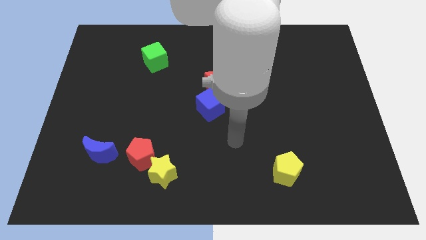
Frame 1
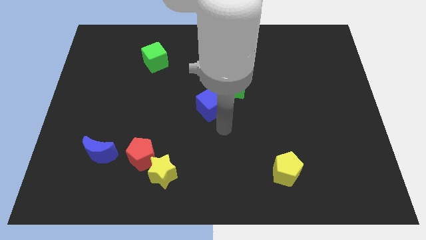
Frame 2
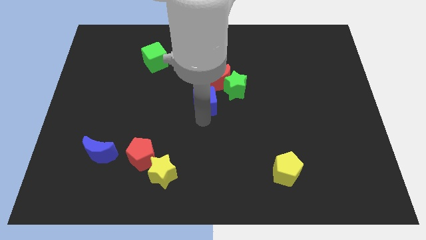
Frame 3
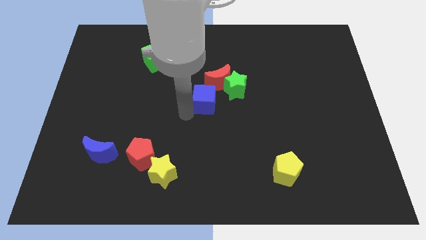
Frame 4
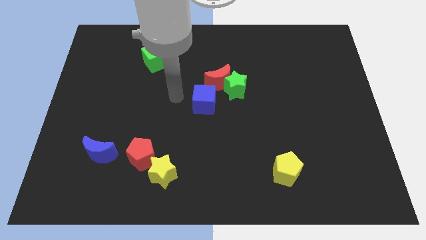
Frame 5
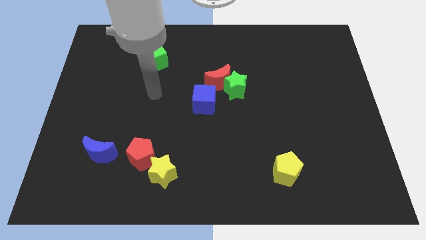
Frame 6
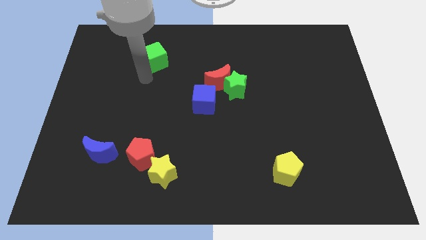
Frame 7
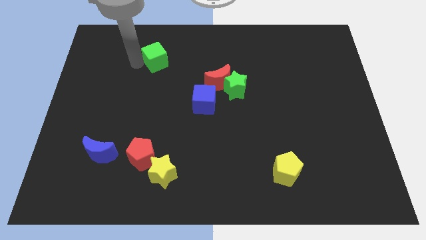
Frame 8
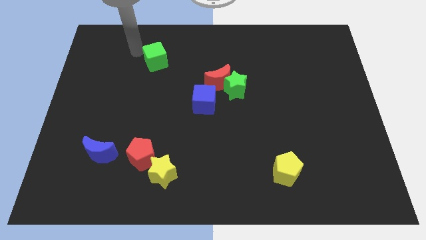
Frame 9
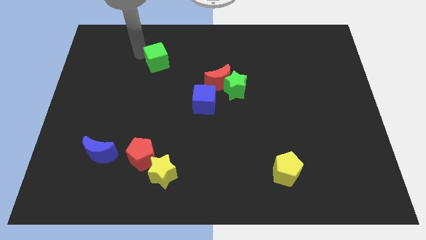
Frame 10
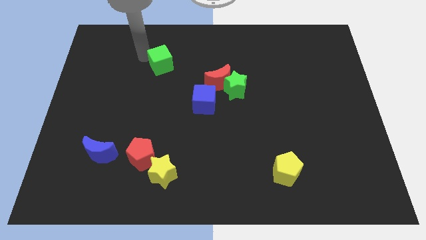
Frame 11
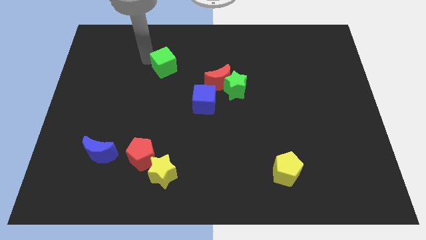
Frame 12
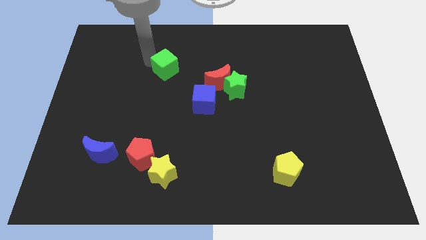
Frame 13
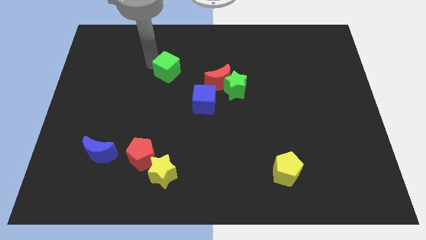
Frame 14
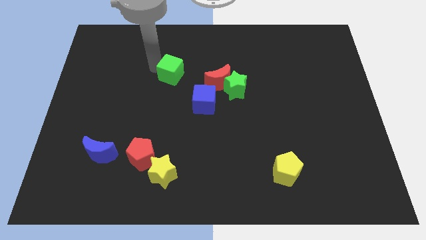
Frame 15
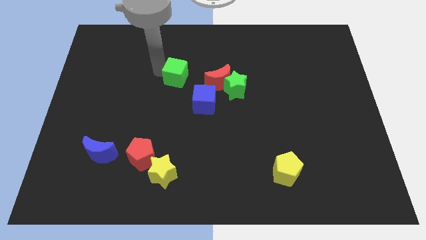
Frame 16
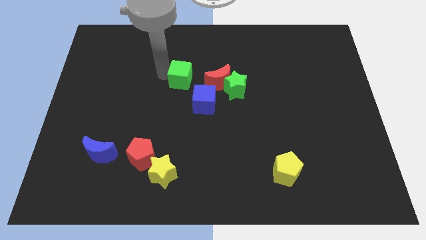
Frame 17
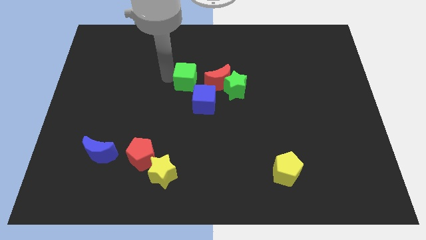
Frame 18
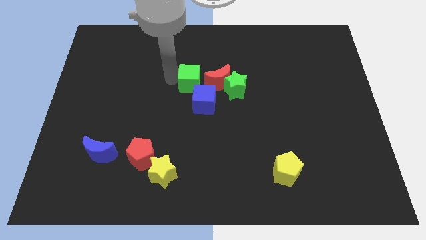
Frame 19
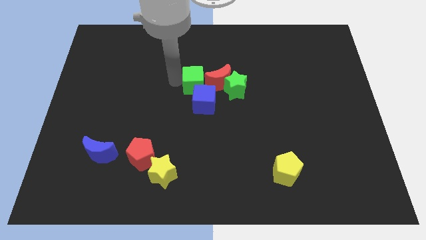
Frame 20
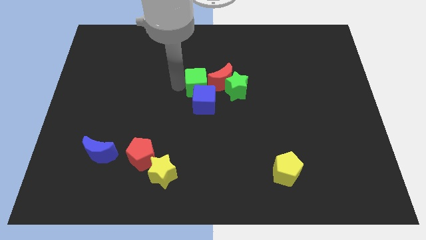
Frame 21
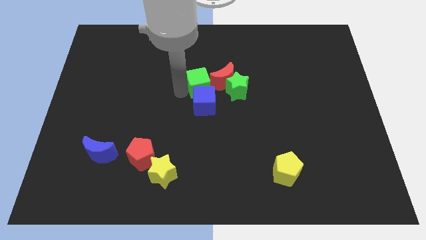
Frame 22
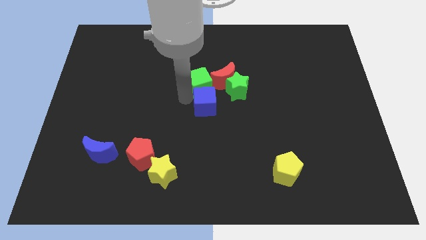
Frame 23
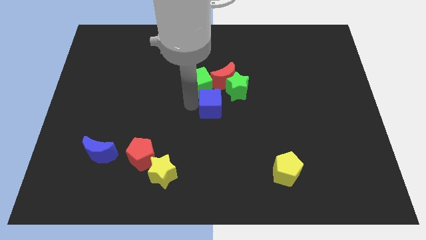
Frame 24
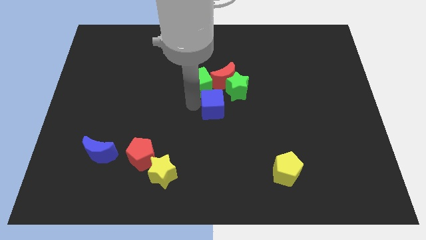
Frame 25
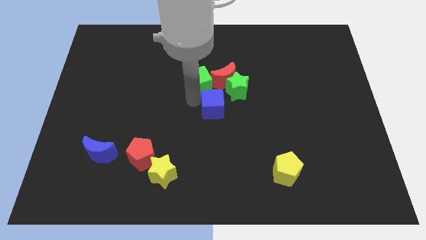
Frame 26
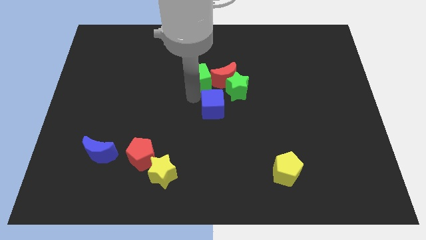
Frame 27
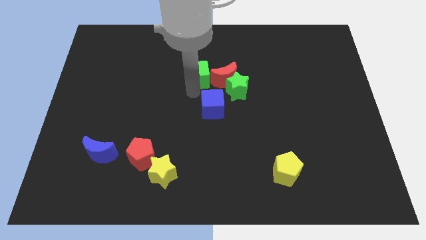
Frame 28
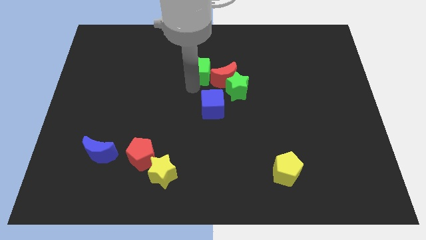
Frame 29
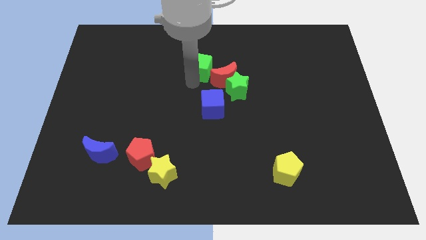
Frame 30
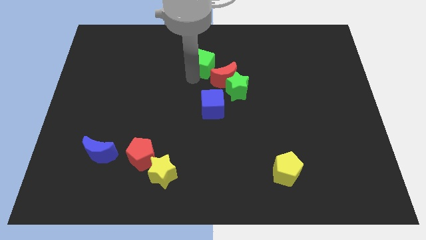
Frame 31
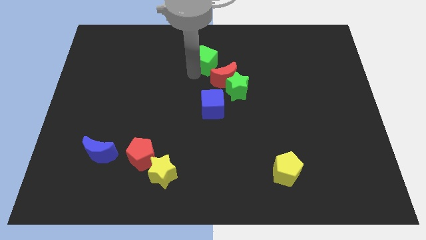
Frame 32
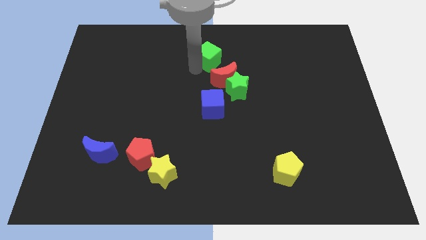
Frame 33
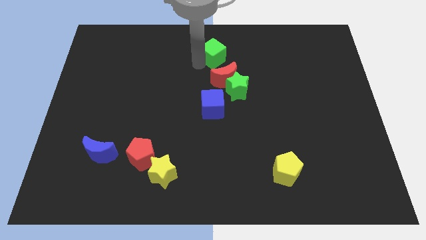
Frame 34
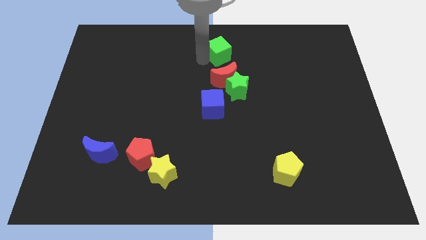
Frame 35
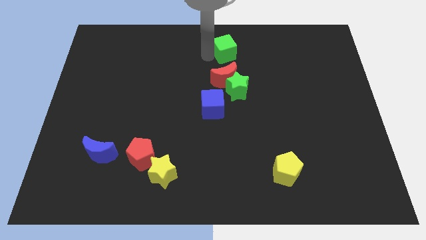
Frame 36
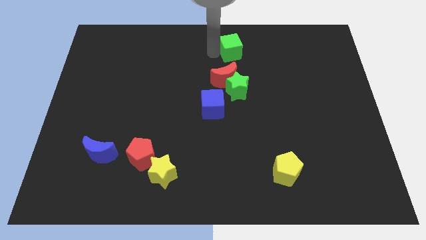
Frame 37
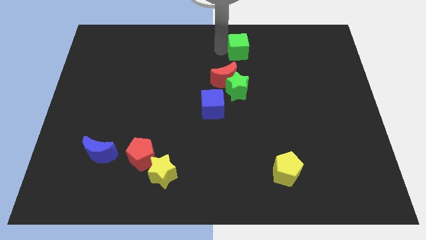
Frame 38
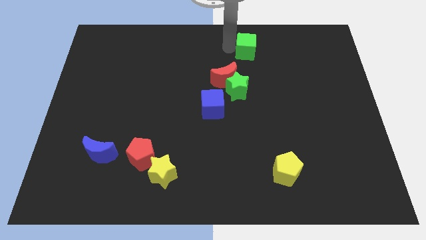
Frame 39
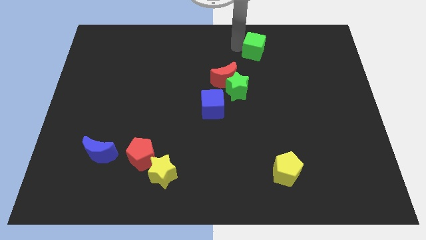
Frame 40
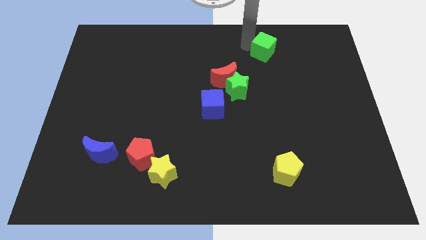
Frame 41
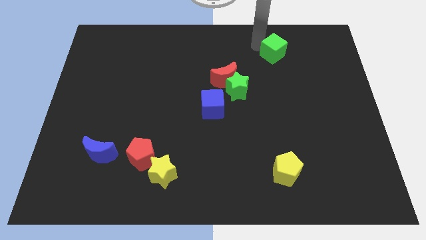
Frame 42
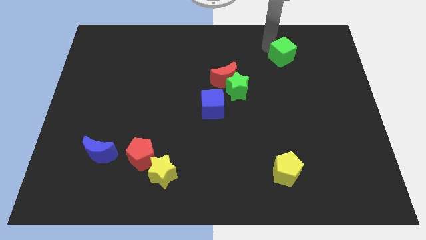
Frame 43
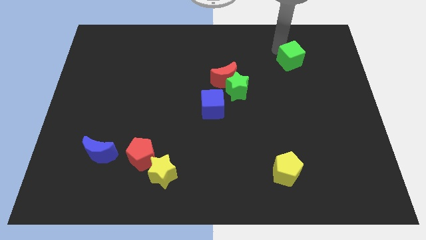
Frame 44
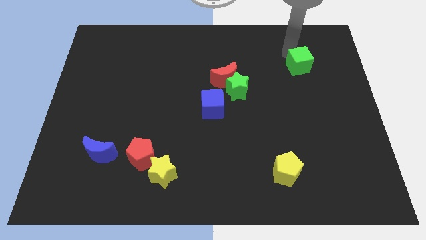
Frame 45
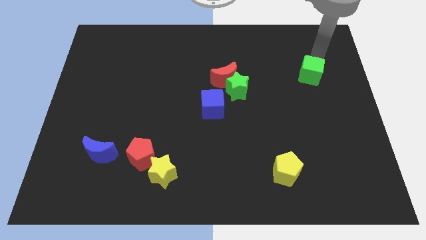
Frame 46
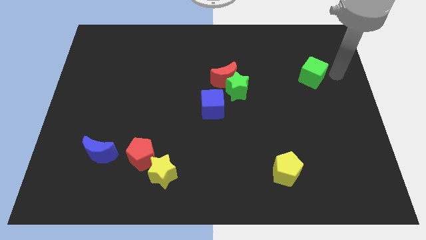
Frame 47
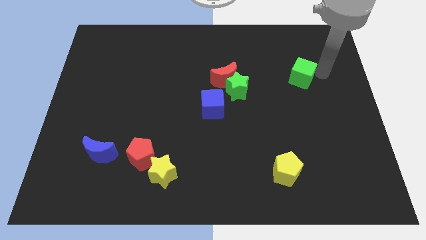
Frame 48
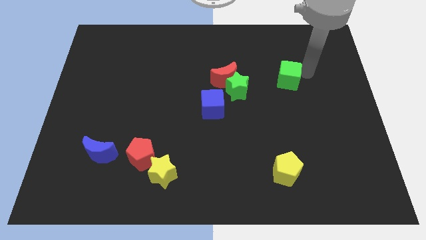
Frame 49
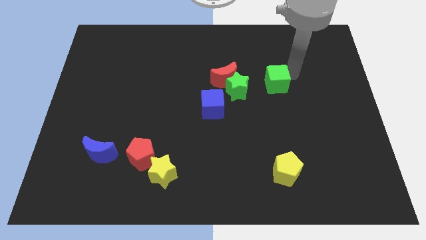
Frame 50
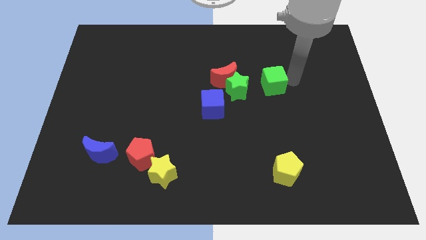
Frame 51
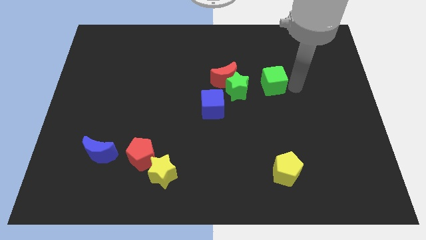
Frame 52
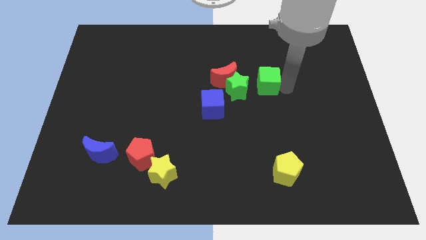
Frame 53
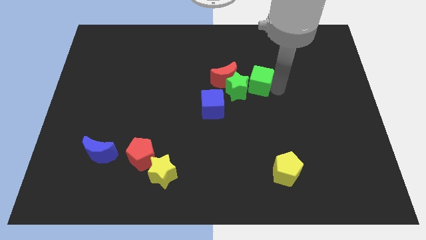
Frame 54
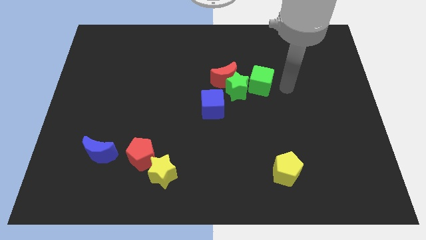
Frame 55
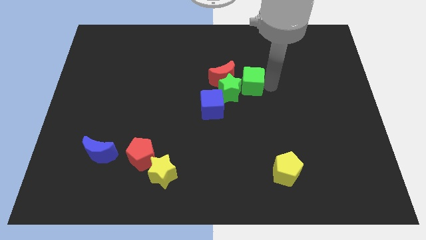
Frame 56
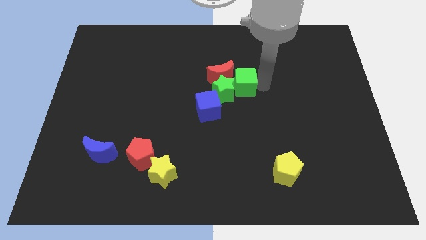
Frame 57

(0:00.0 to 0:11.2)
push the green cube to the red moon

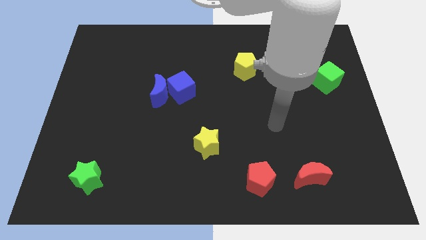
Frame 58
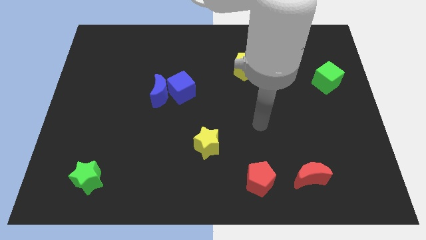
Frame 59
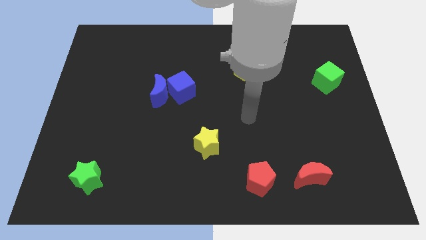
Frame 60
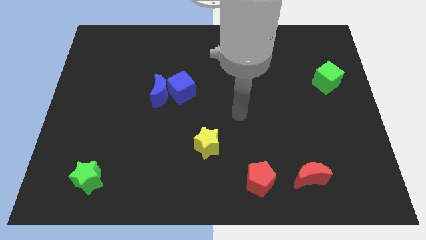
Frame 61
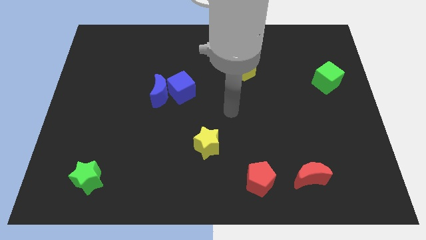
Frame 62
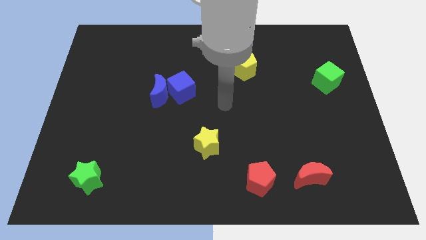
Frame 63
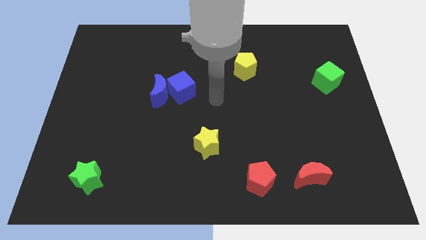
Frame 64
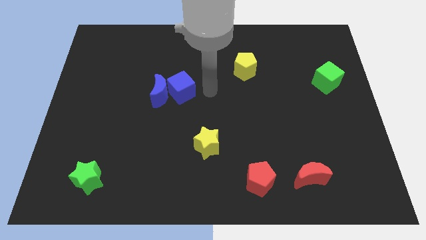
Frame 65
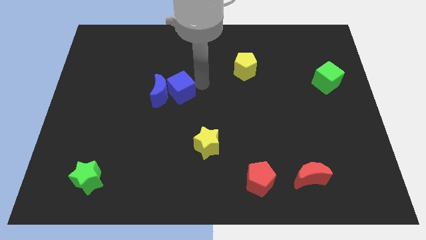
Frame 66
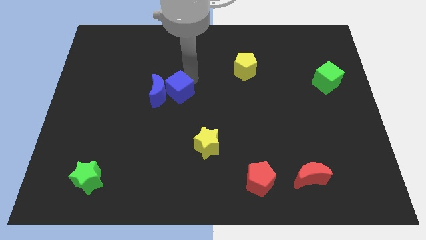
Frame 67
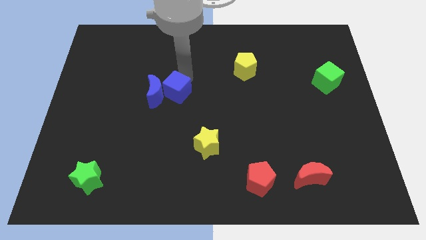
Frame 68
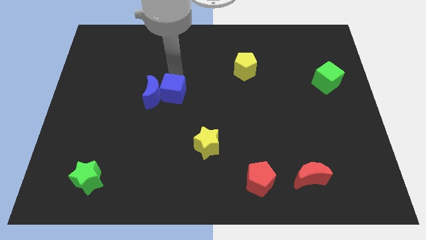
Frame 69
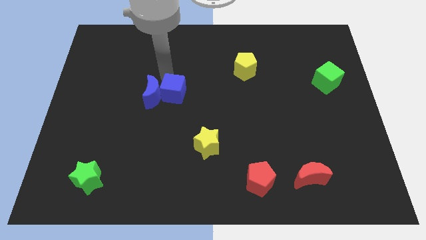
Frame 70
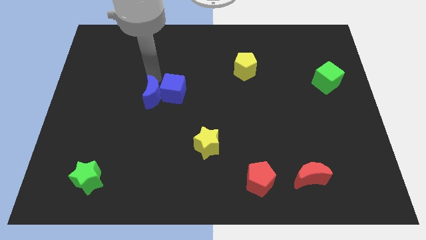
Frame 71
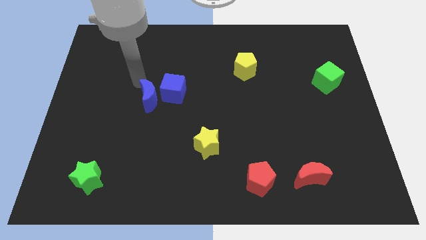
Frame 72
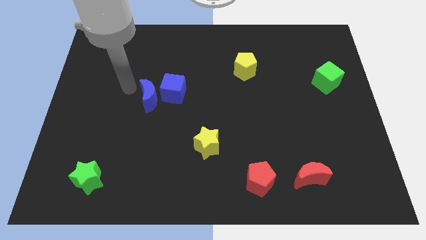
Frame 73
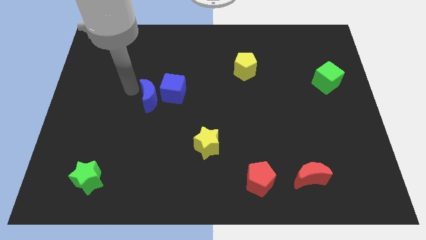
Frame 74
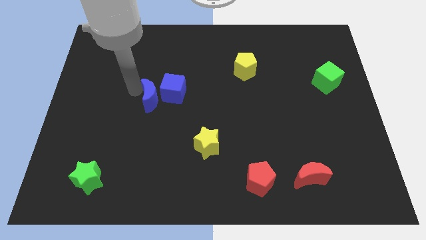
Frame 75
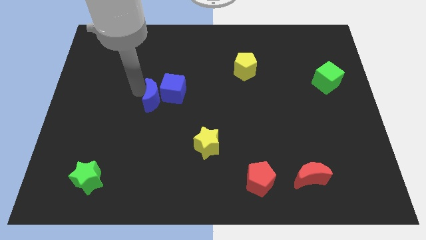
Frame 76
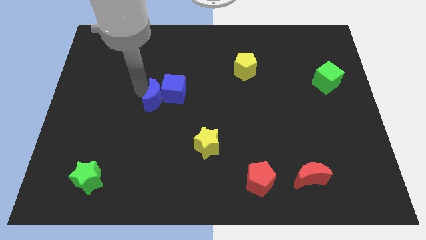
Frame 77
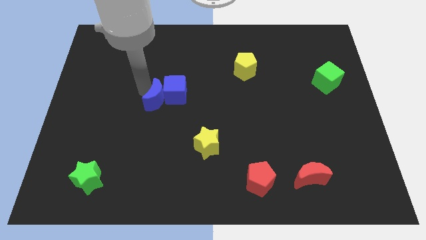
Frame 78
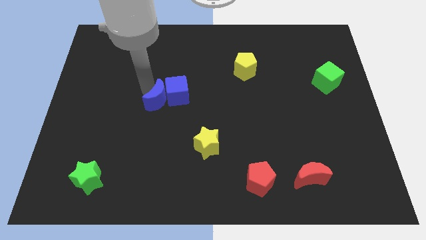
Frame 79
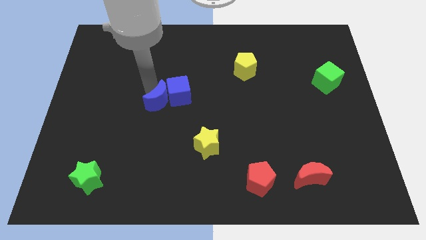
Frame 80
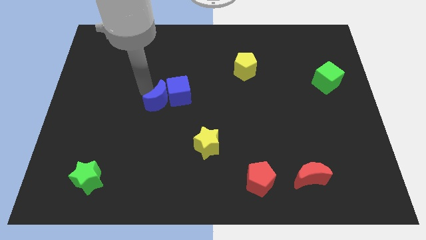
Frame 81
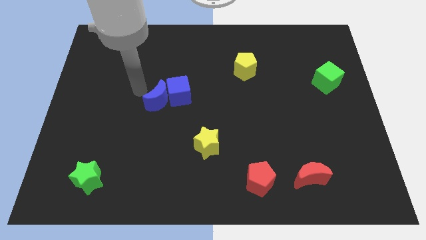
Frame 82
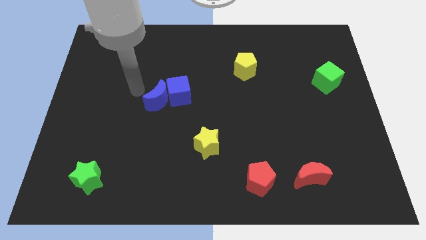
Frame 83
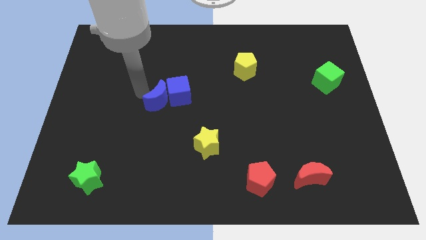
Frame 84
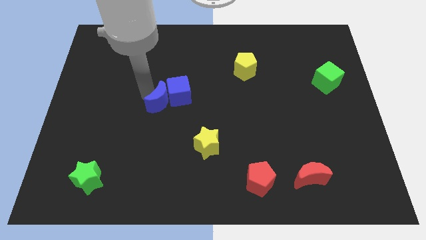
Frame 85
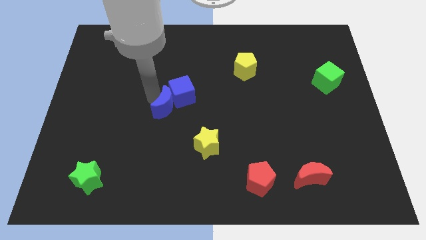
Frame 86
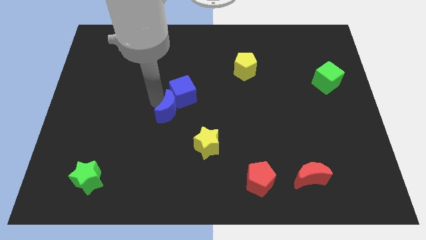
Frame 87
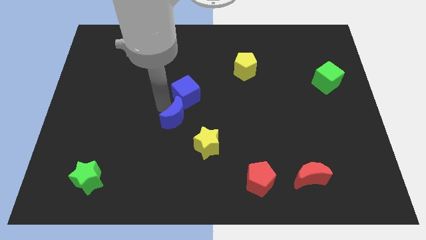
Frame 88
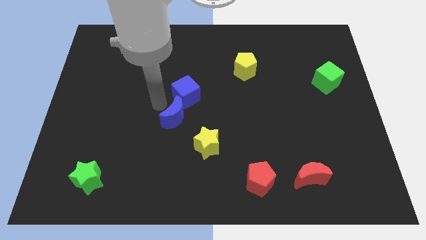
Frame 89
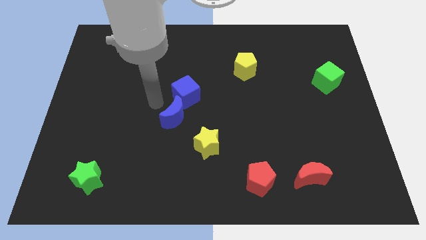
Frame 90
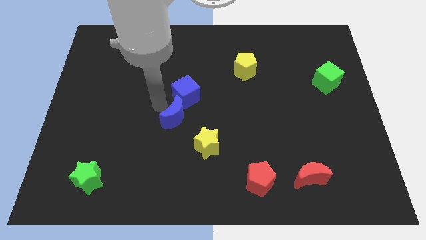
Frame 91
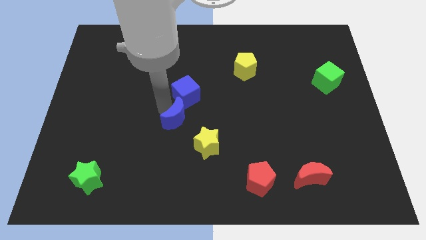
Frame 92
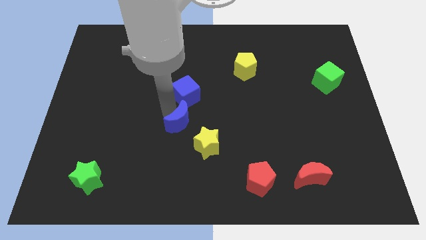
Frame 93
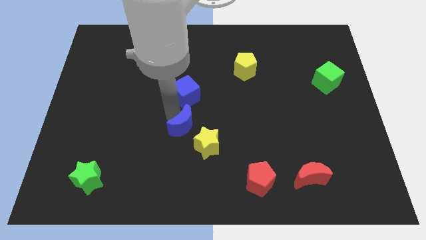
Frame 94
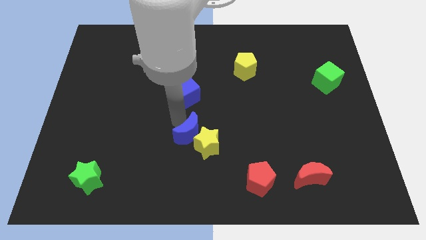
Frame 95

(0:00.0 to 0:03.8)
move the blue moon close to the yellow star
